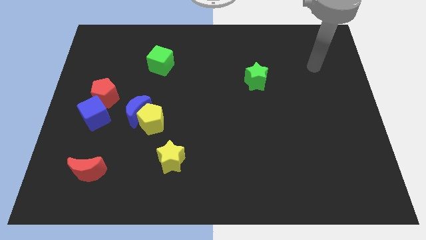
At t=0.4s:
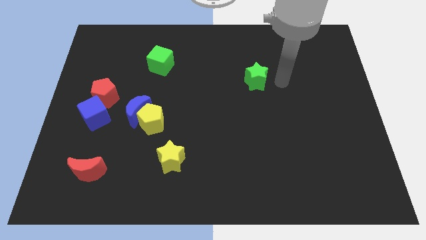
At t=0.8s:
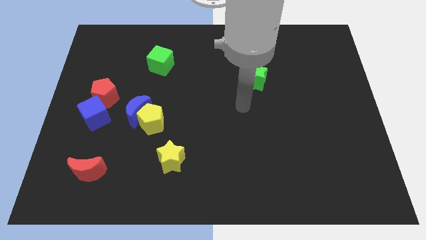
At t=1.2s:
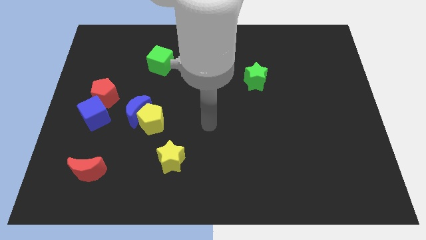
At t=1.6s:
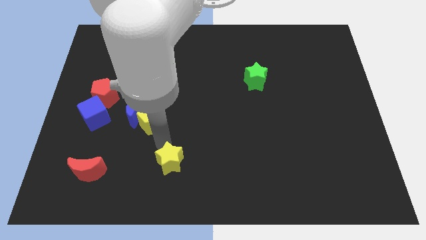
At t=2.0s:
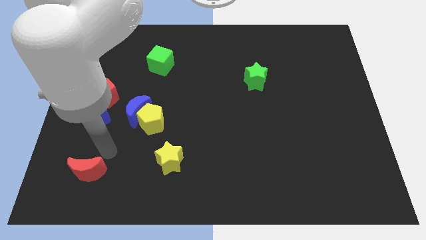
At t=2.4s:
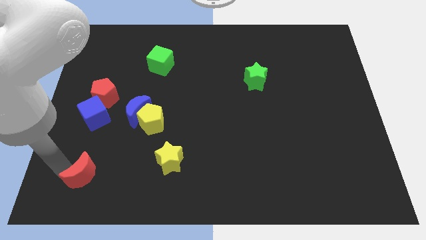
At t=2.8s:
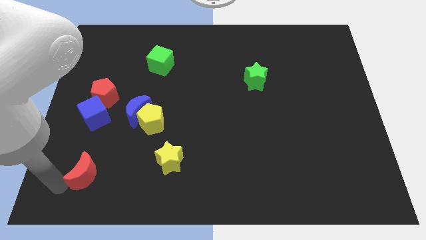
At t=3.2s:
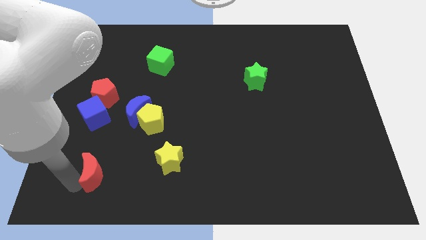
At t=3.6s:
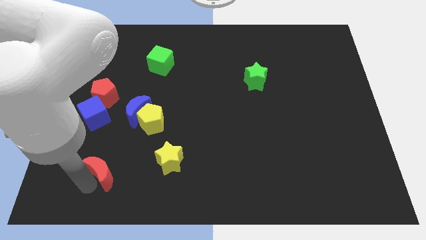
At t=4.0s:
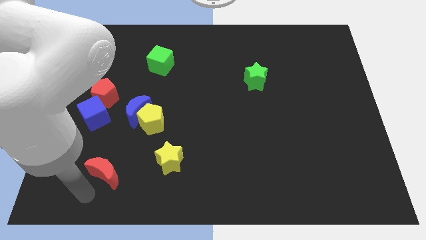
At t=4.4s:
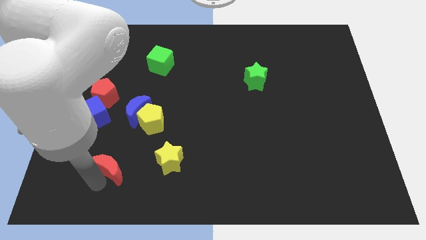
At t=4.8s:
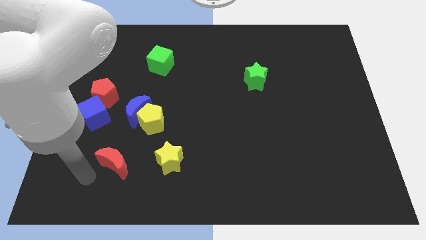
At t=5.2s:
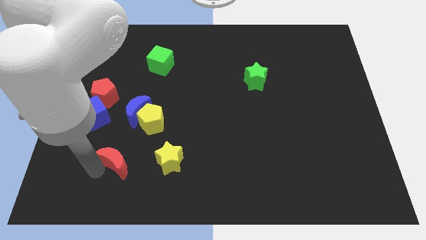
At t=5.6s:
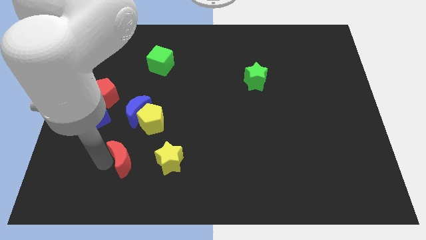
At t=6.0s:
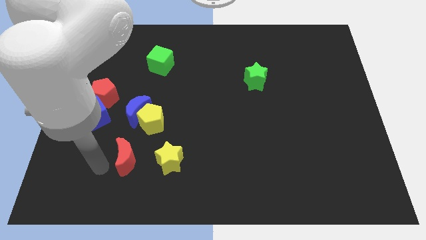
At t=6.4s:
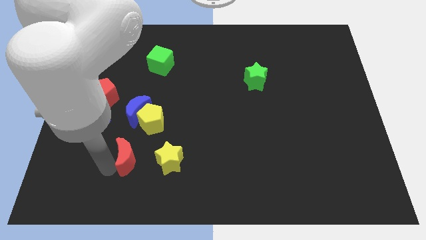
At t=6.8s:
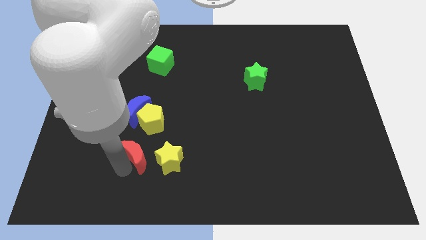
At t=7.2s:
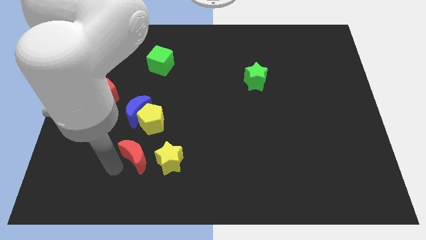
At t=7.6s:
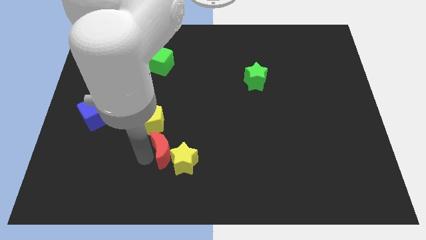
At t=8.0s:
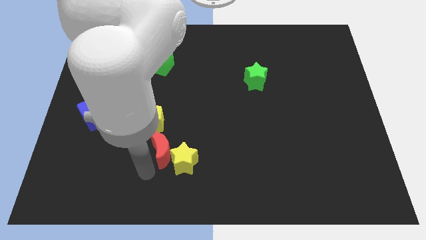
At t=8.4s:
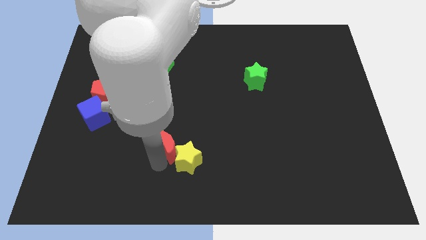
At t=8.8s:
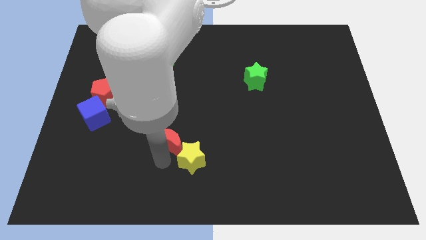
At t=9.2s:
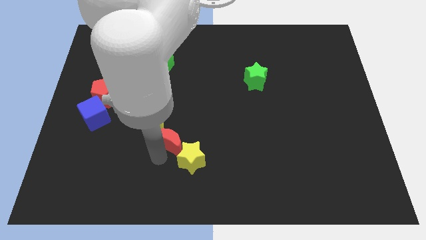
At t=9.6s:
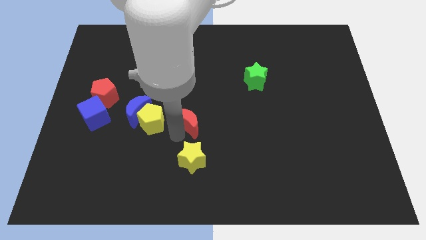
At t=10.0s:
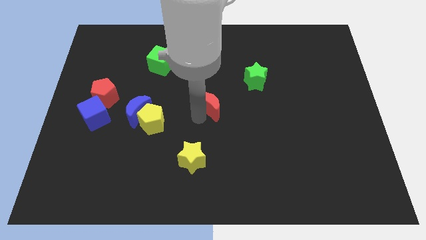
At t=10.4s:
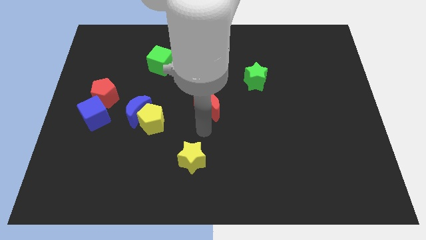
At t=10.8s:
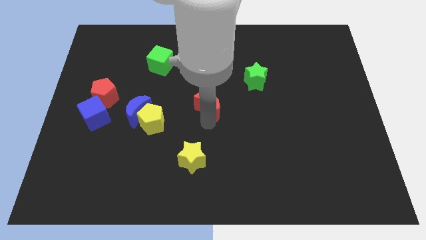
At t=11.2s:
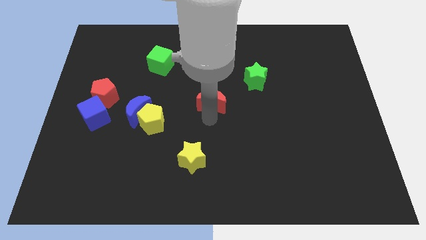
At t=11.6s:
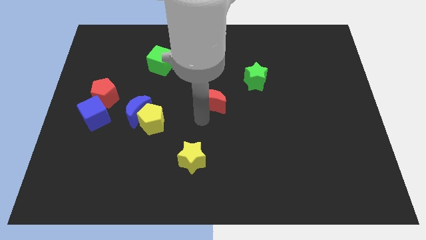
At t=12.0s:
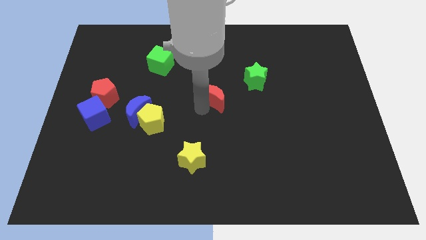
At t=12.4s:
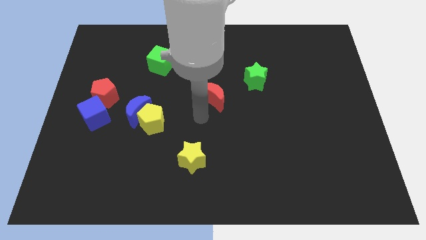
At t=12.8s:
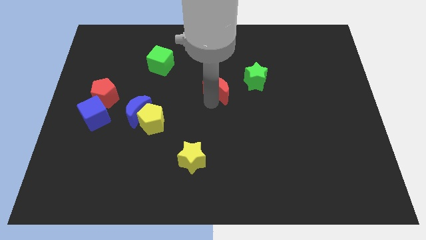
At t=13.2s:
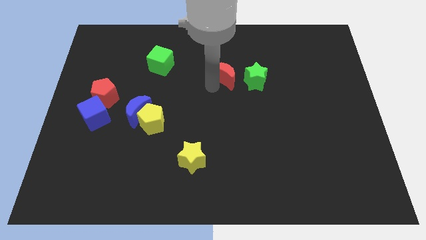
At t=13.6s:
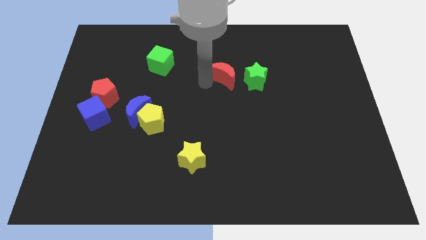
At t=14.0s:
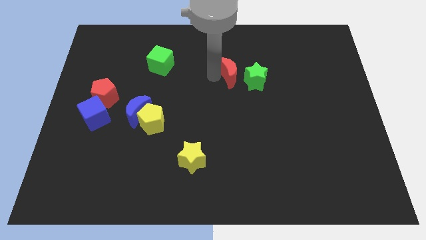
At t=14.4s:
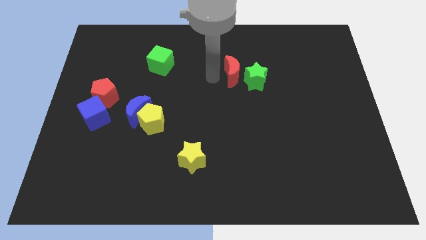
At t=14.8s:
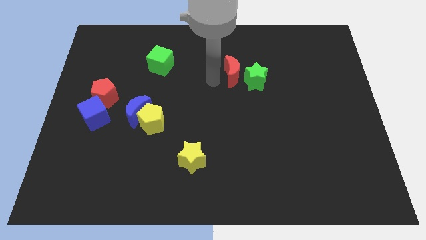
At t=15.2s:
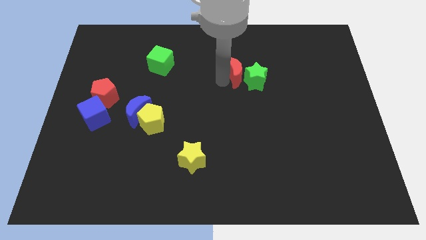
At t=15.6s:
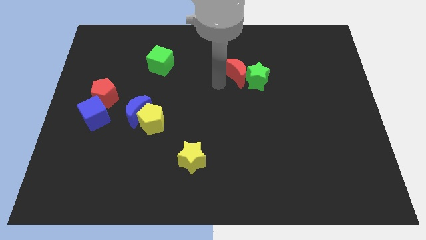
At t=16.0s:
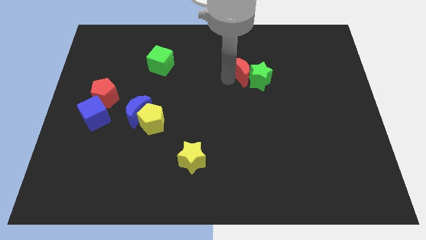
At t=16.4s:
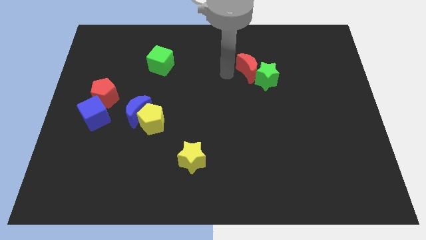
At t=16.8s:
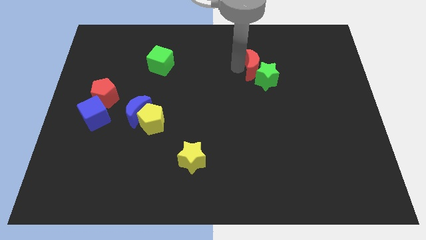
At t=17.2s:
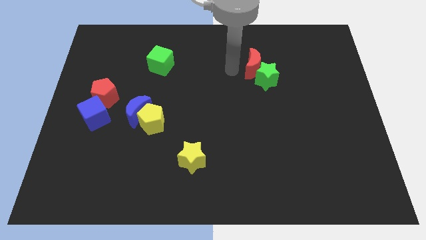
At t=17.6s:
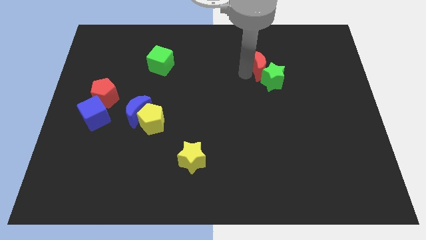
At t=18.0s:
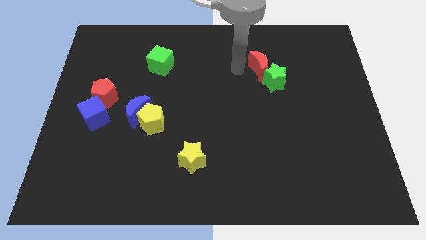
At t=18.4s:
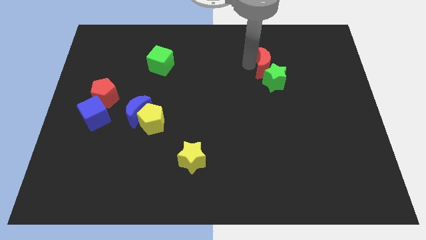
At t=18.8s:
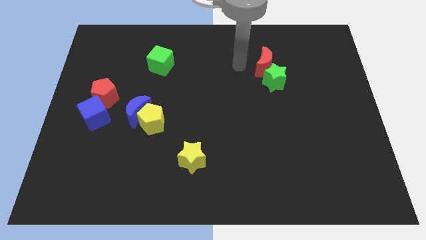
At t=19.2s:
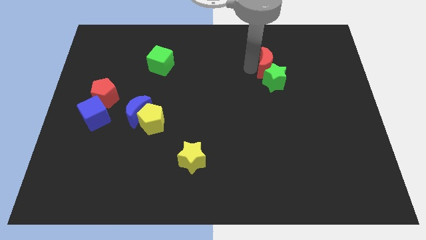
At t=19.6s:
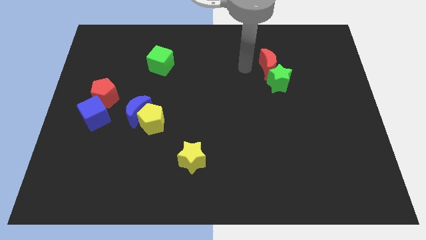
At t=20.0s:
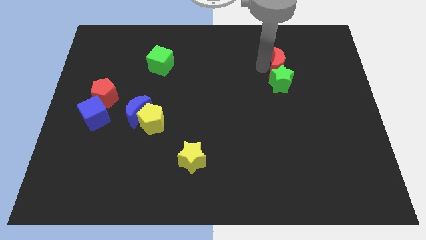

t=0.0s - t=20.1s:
move the red moon to the top right side of the green star

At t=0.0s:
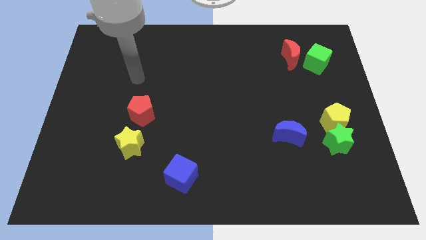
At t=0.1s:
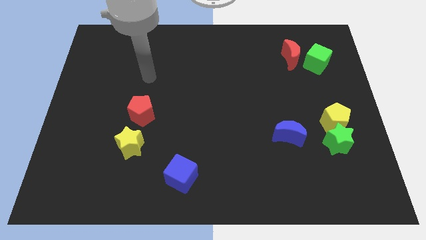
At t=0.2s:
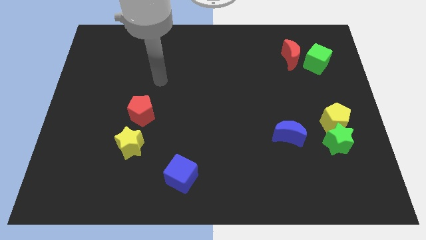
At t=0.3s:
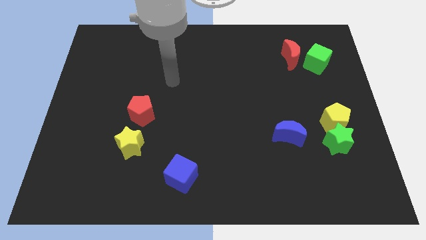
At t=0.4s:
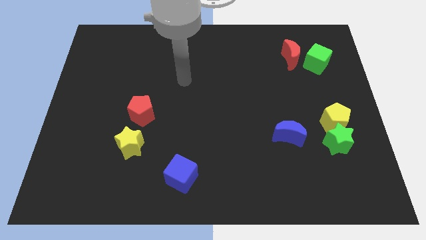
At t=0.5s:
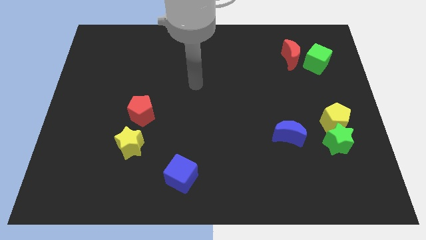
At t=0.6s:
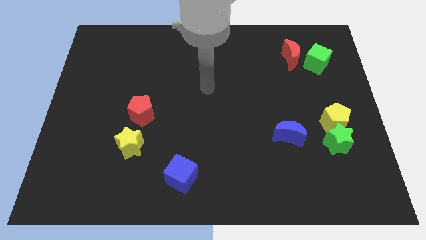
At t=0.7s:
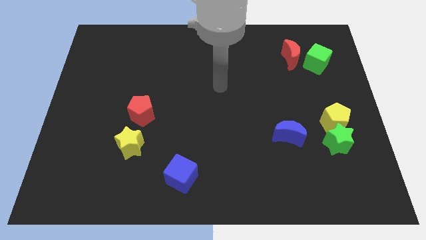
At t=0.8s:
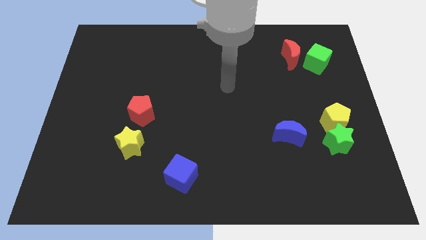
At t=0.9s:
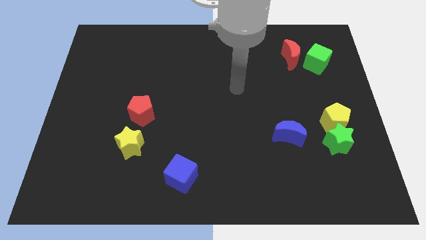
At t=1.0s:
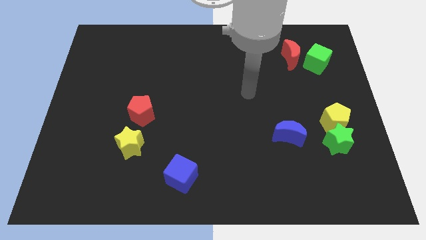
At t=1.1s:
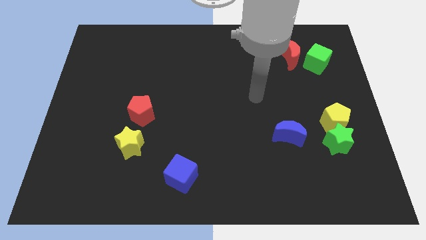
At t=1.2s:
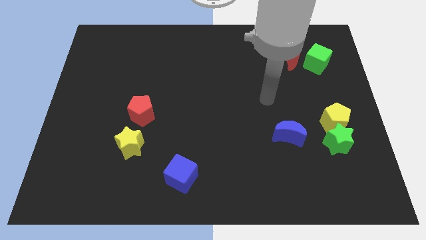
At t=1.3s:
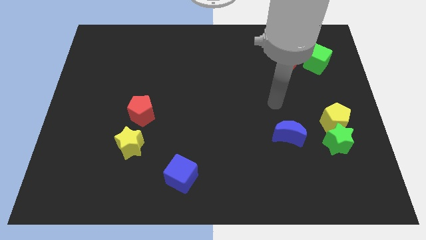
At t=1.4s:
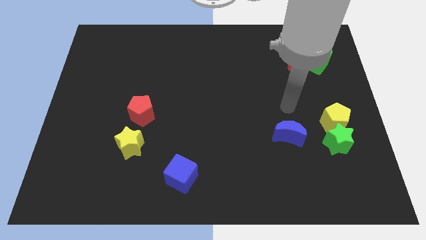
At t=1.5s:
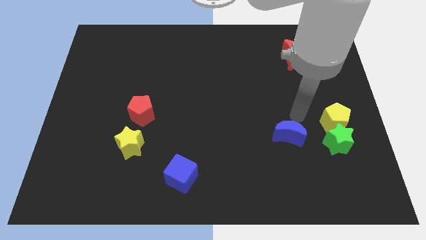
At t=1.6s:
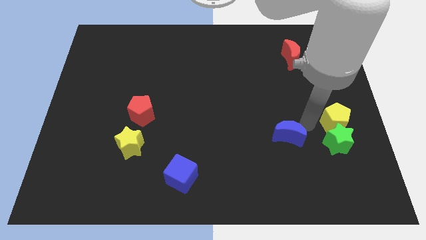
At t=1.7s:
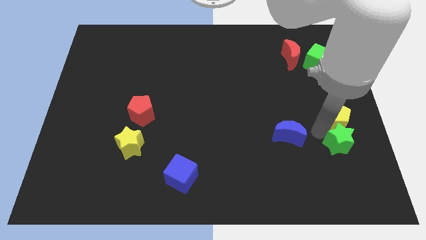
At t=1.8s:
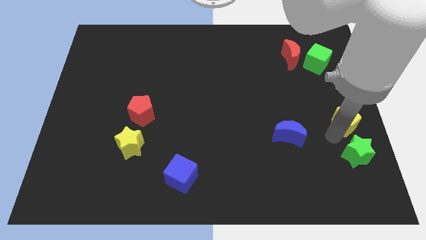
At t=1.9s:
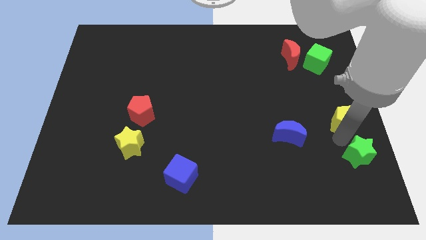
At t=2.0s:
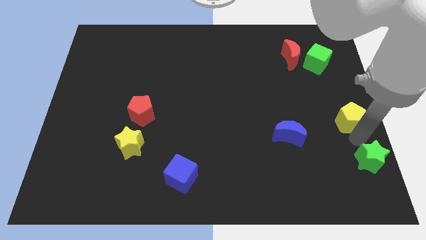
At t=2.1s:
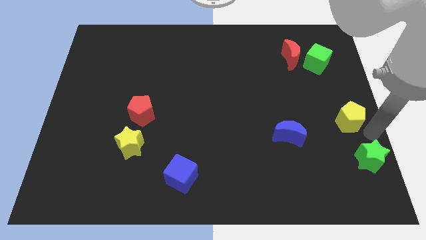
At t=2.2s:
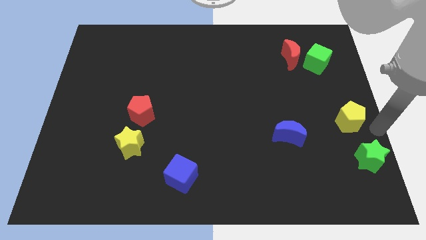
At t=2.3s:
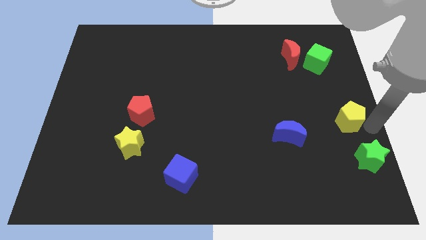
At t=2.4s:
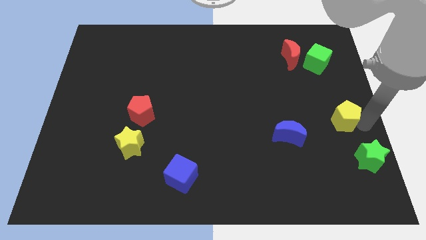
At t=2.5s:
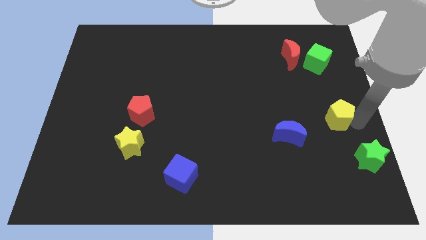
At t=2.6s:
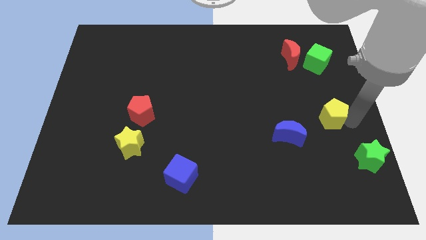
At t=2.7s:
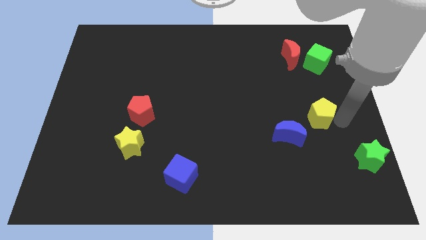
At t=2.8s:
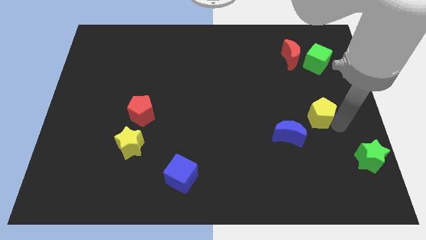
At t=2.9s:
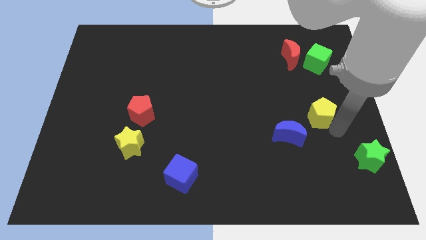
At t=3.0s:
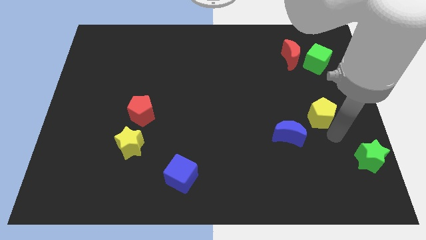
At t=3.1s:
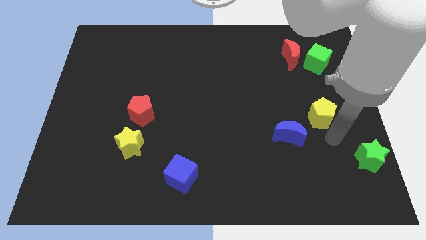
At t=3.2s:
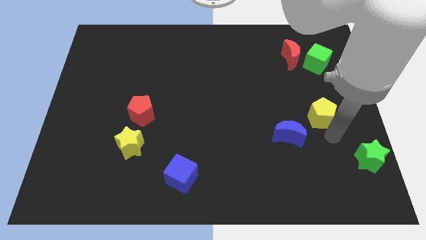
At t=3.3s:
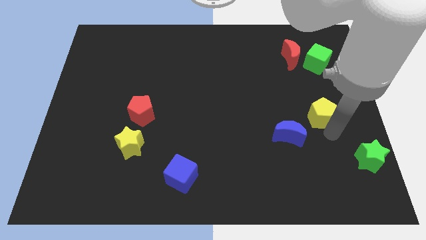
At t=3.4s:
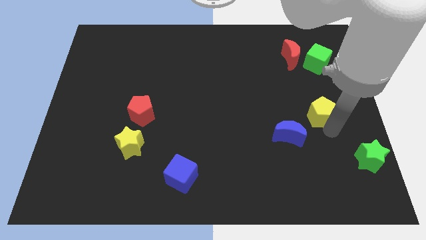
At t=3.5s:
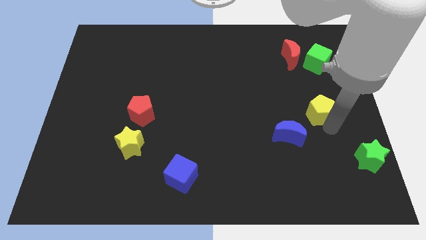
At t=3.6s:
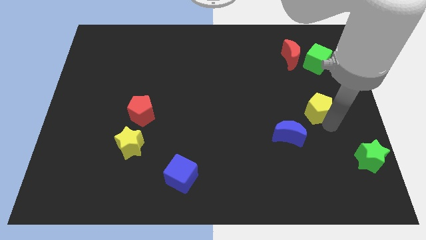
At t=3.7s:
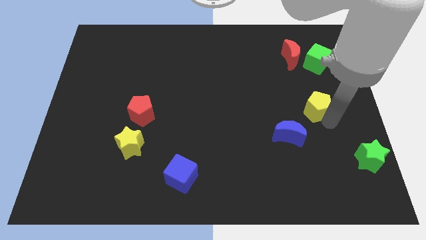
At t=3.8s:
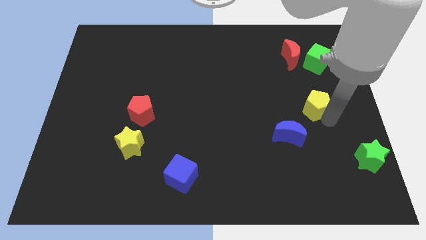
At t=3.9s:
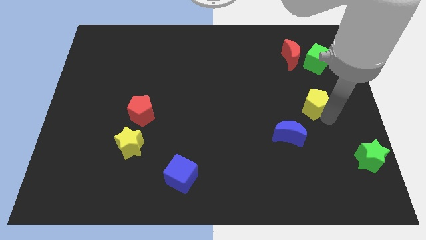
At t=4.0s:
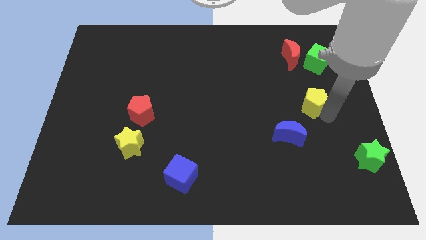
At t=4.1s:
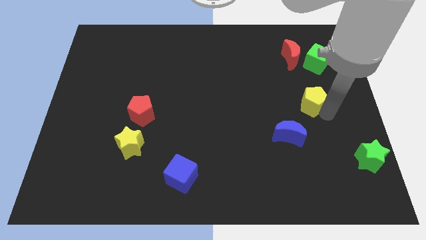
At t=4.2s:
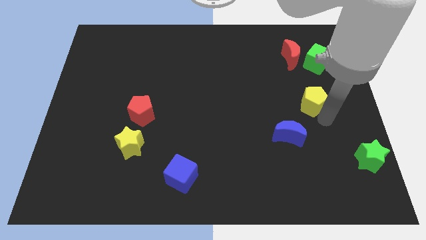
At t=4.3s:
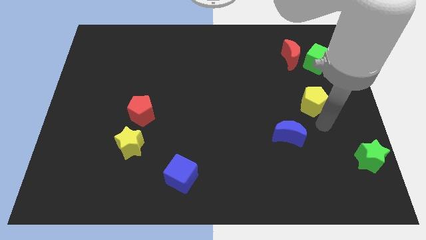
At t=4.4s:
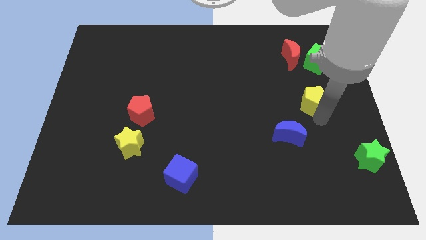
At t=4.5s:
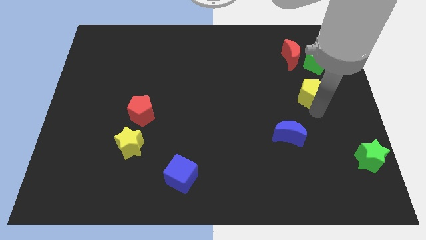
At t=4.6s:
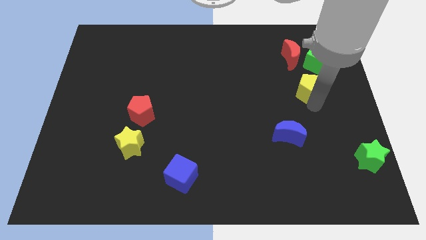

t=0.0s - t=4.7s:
move the yellow pentagon to the bottom left side of the green cube
